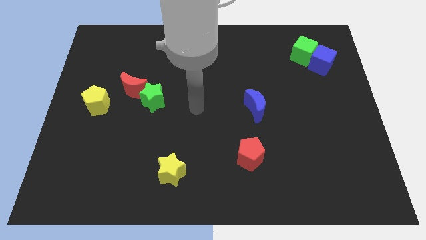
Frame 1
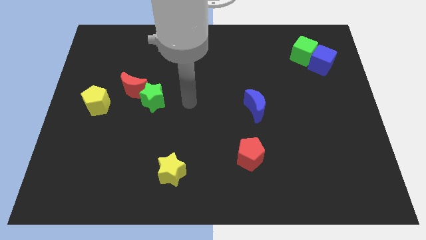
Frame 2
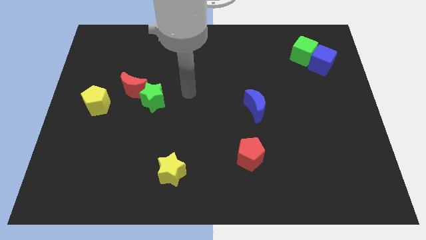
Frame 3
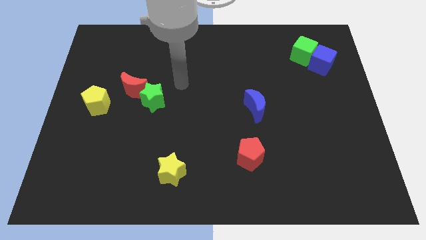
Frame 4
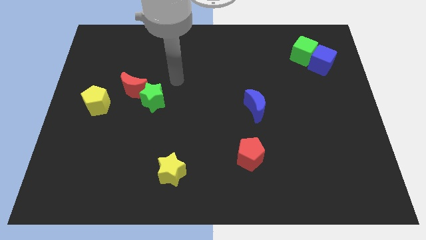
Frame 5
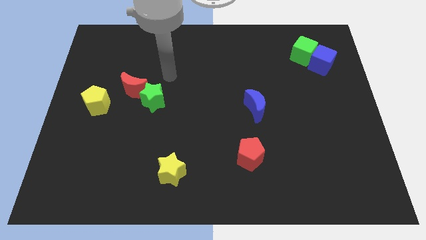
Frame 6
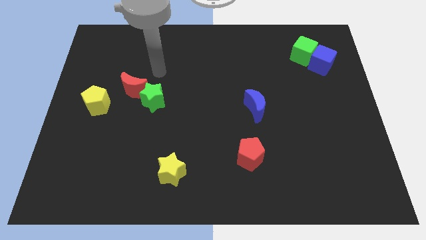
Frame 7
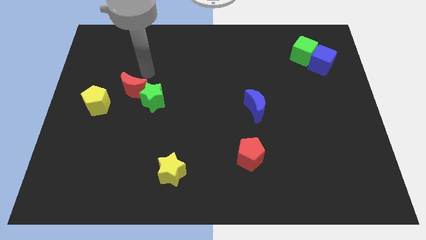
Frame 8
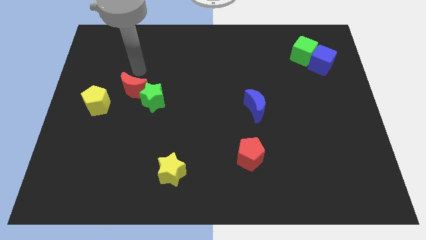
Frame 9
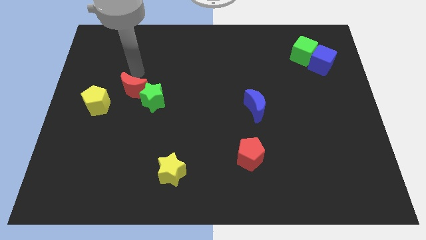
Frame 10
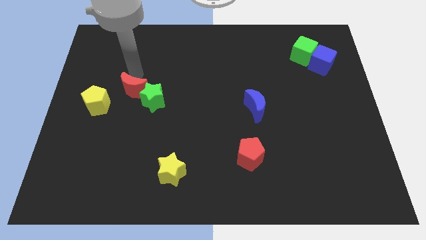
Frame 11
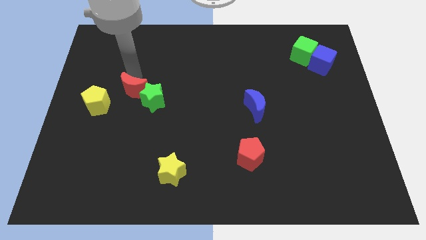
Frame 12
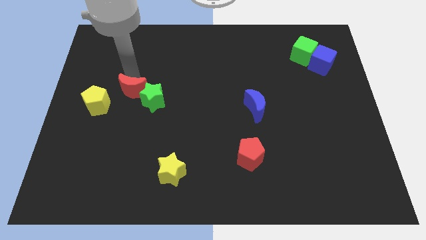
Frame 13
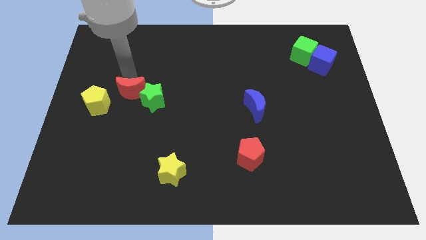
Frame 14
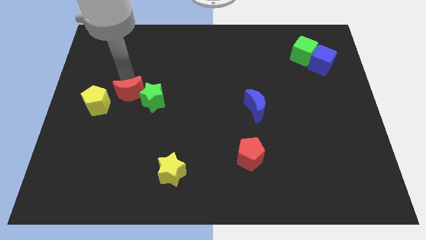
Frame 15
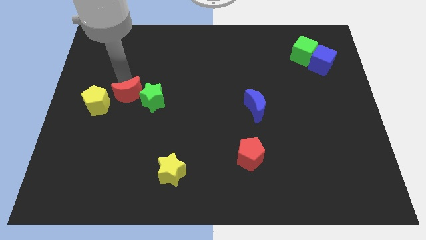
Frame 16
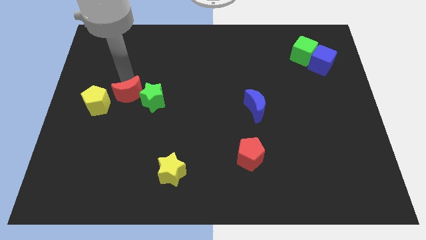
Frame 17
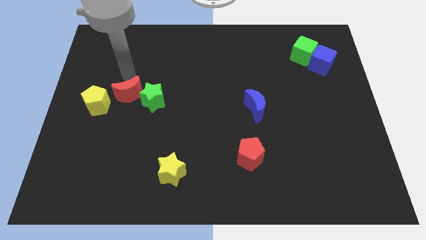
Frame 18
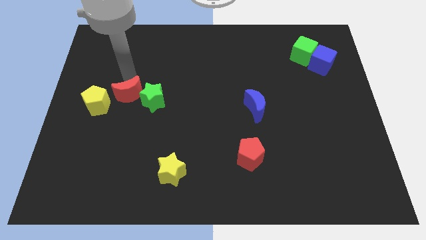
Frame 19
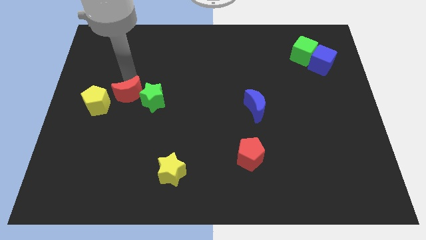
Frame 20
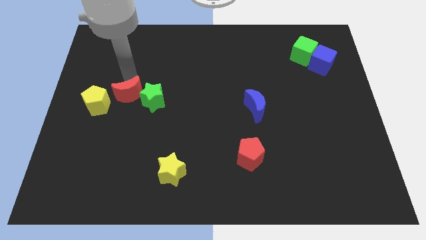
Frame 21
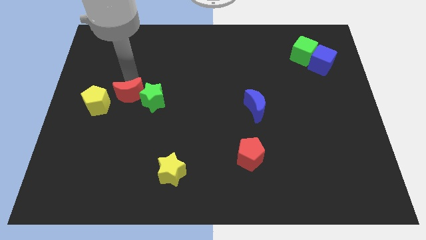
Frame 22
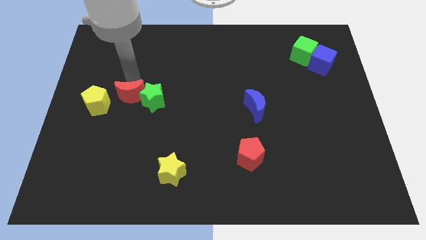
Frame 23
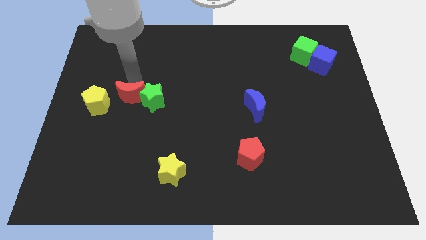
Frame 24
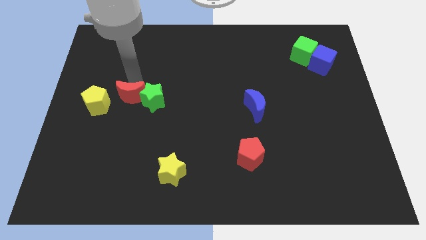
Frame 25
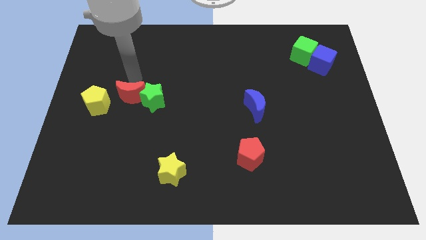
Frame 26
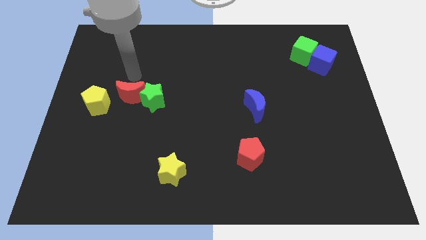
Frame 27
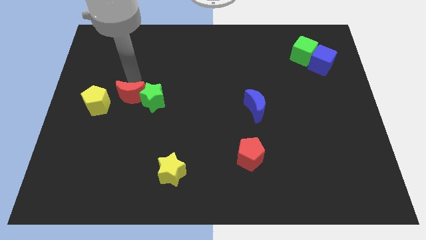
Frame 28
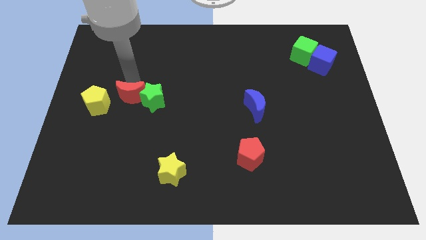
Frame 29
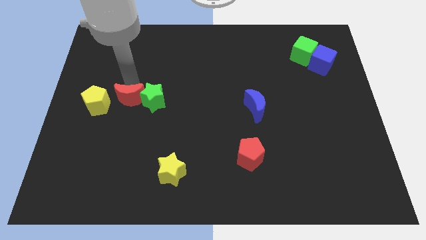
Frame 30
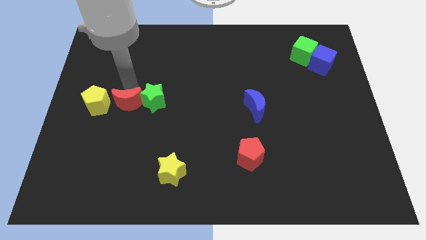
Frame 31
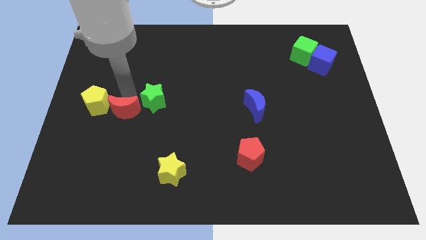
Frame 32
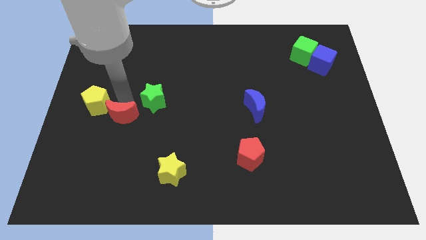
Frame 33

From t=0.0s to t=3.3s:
slightly slide the red moon downwards

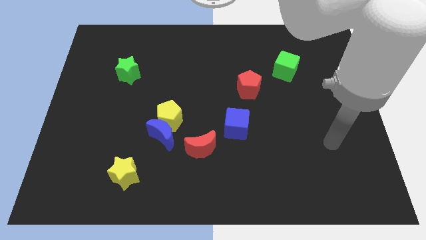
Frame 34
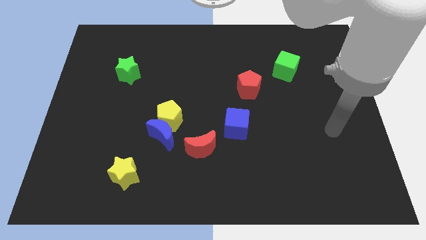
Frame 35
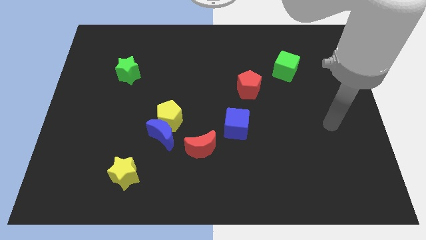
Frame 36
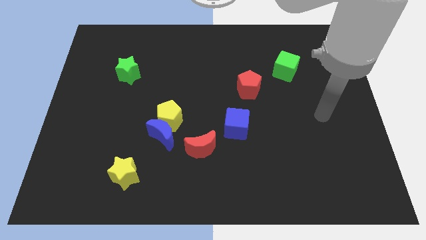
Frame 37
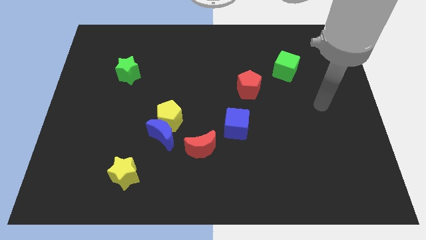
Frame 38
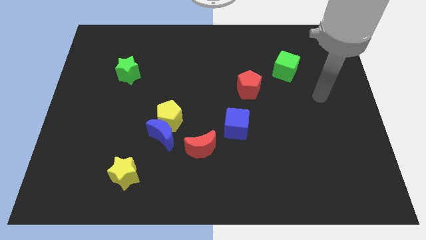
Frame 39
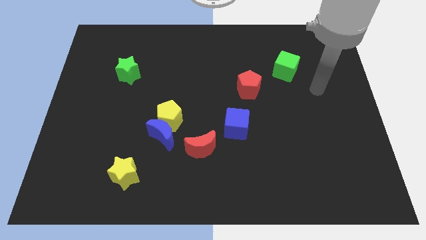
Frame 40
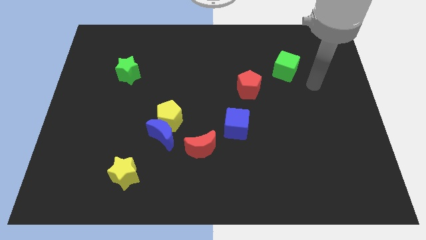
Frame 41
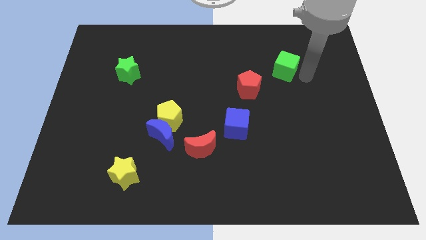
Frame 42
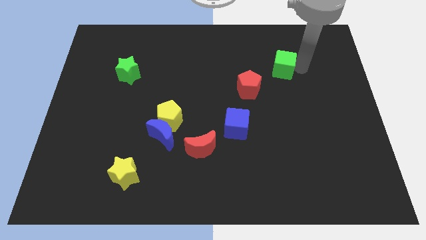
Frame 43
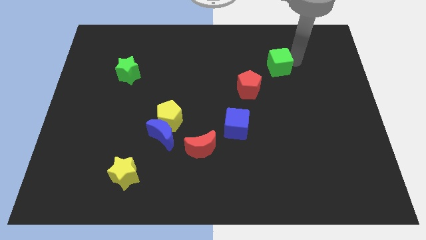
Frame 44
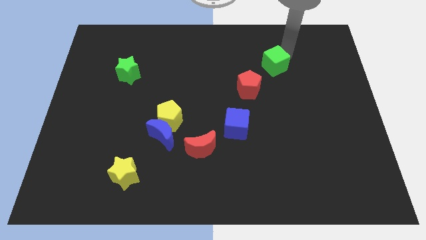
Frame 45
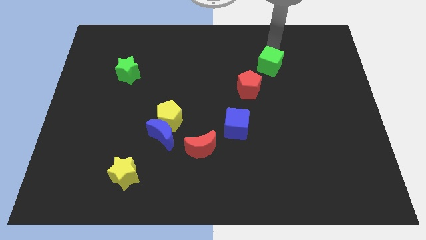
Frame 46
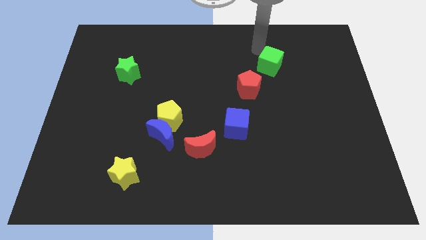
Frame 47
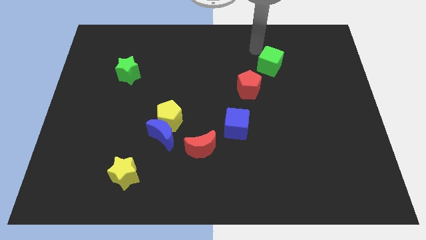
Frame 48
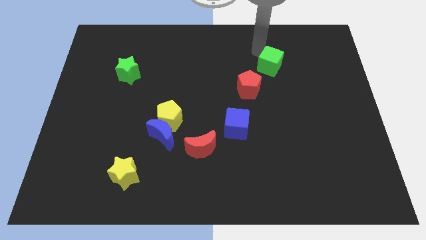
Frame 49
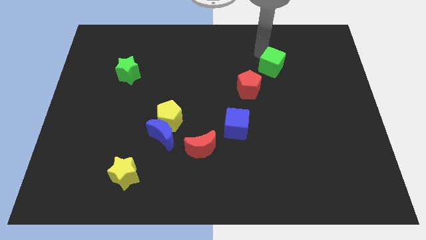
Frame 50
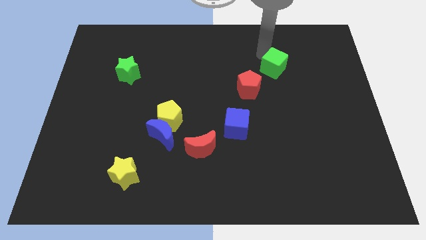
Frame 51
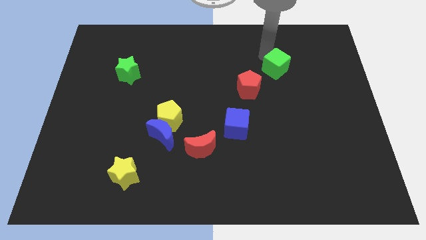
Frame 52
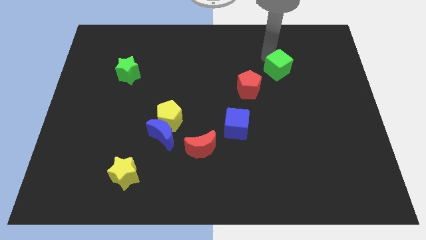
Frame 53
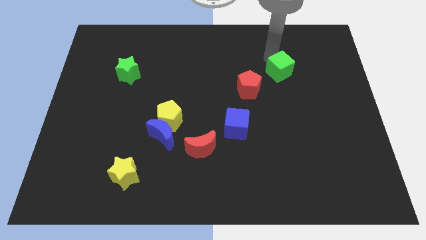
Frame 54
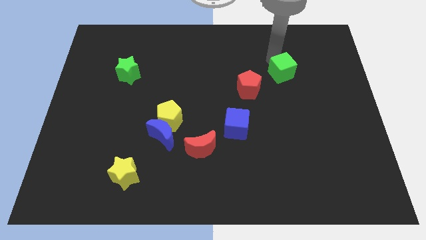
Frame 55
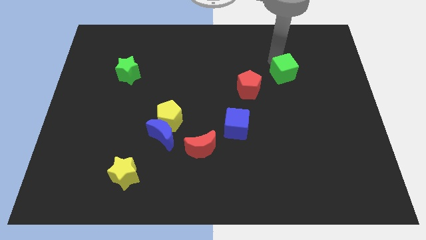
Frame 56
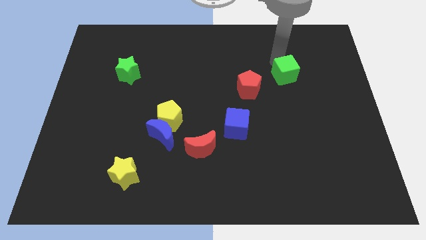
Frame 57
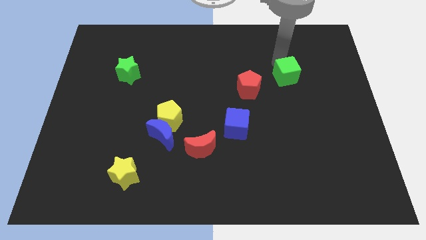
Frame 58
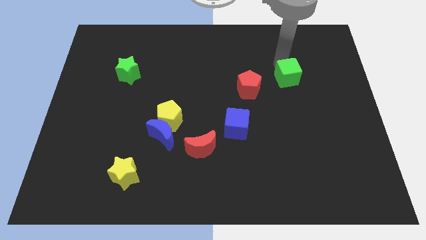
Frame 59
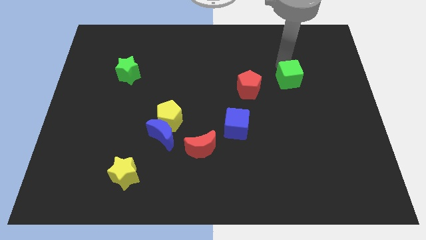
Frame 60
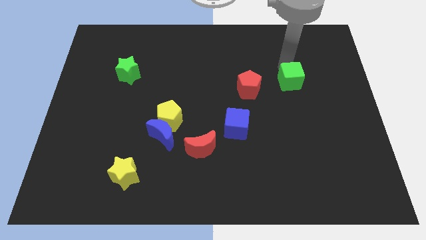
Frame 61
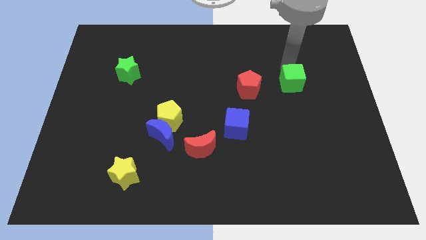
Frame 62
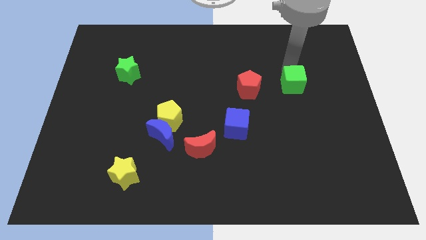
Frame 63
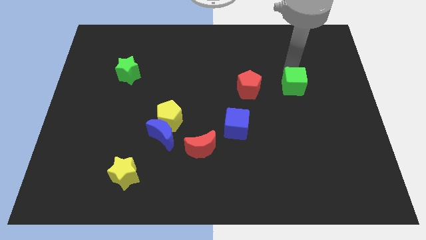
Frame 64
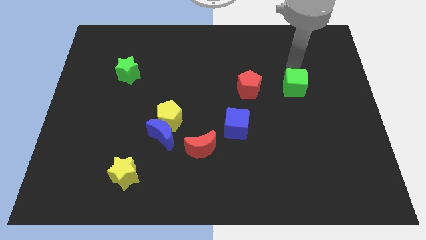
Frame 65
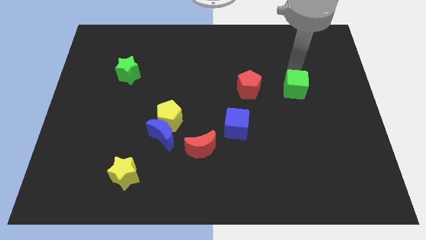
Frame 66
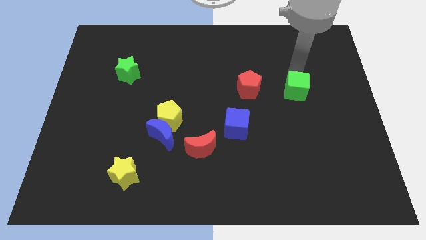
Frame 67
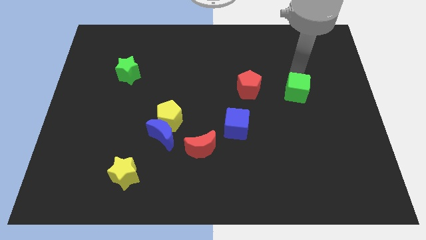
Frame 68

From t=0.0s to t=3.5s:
move the green cube down slightly

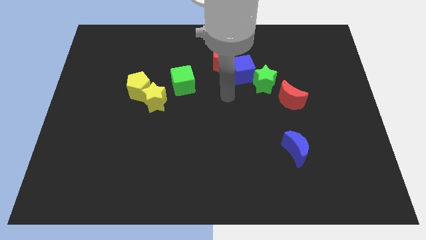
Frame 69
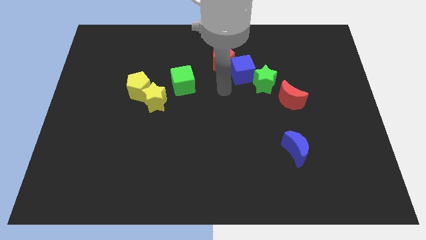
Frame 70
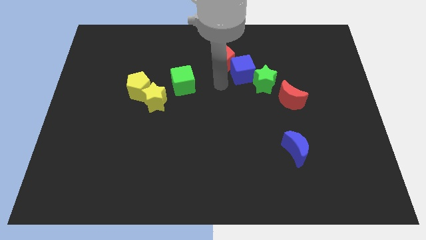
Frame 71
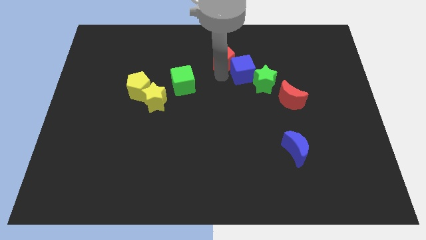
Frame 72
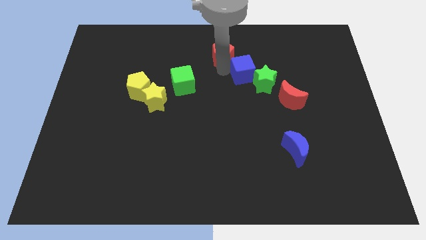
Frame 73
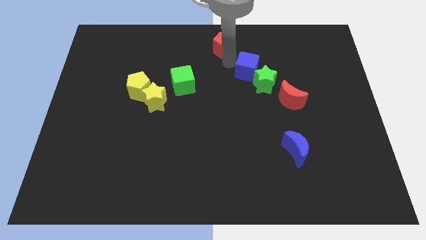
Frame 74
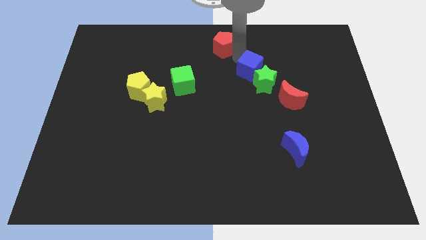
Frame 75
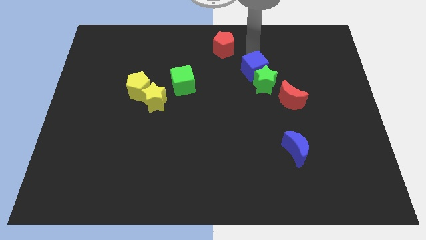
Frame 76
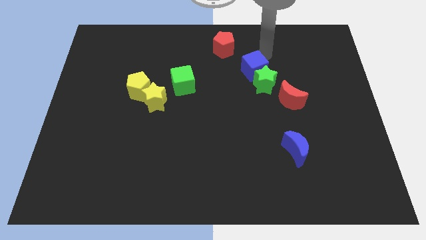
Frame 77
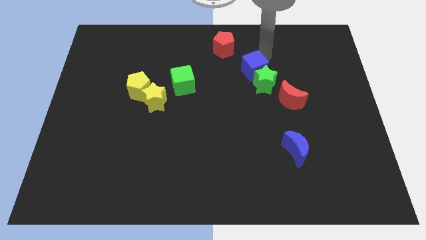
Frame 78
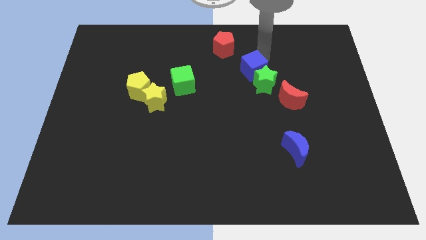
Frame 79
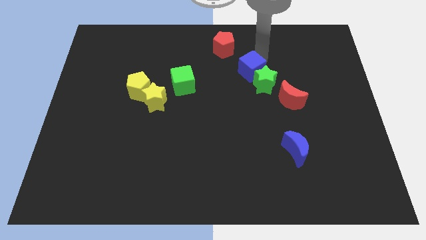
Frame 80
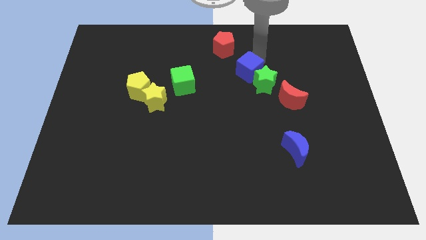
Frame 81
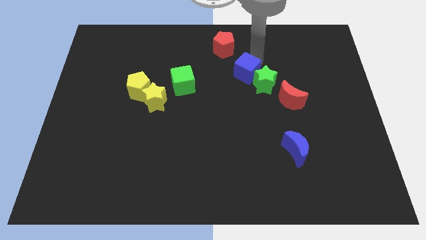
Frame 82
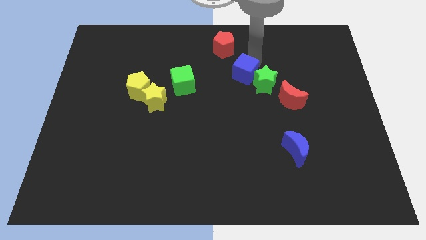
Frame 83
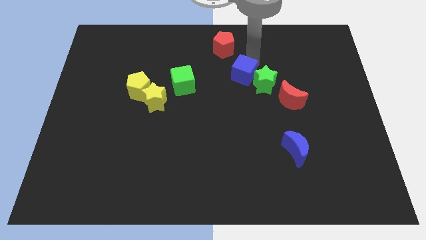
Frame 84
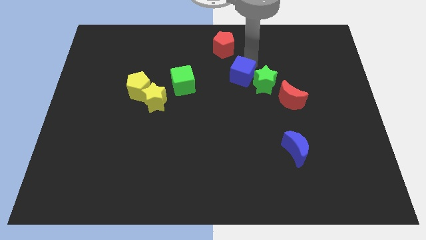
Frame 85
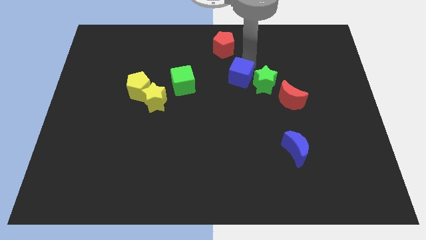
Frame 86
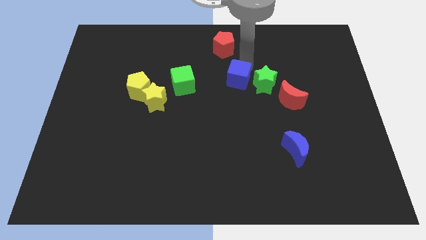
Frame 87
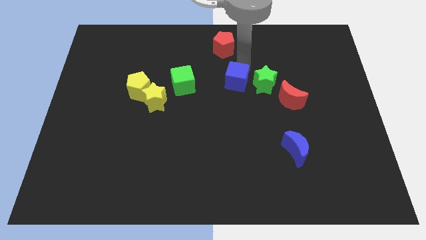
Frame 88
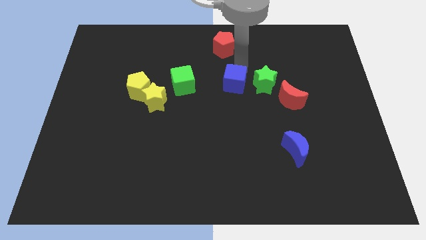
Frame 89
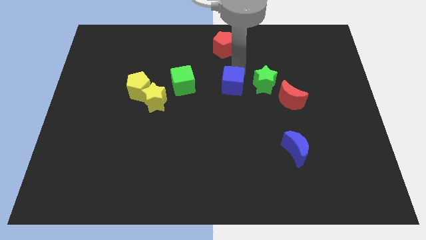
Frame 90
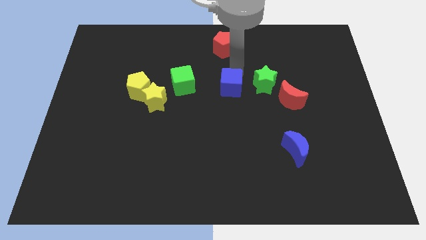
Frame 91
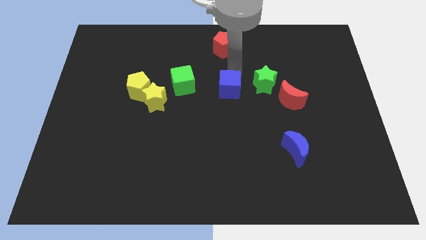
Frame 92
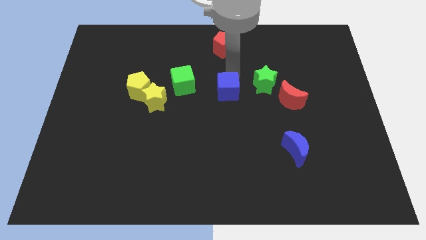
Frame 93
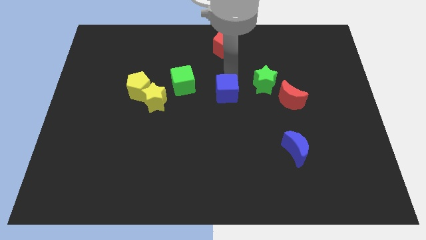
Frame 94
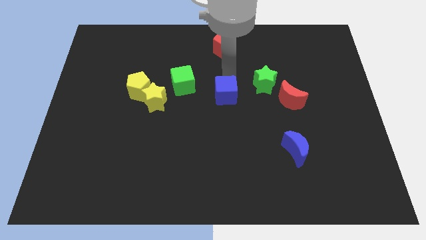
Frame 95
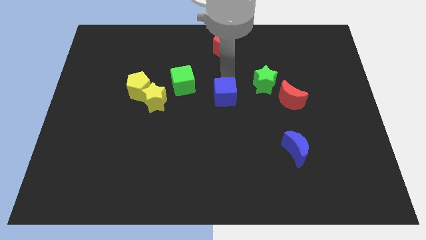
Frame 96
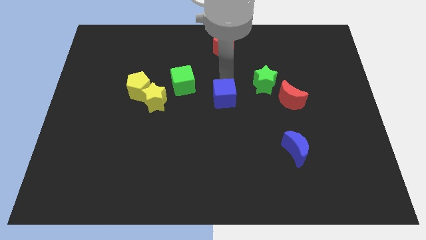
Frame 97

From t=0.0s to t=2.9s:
move the blue cube down a bit
